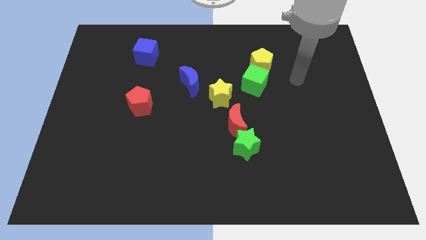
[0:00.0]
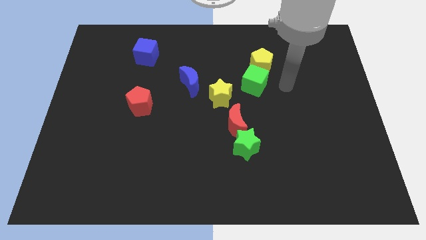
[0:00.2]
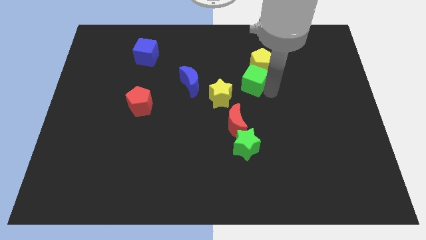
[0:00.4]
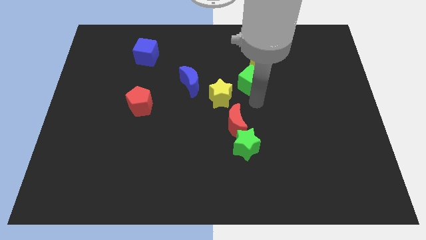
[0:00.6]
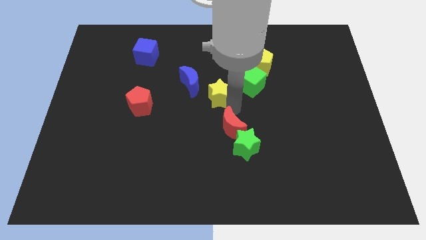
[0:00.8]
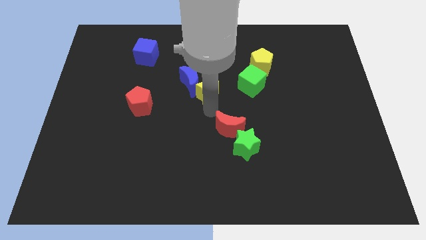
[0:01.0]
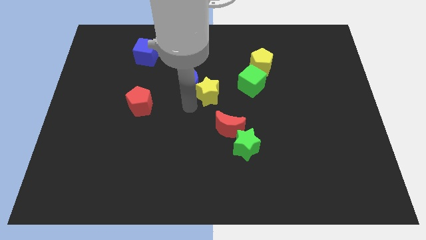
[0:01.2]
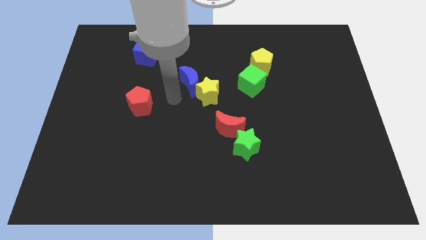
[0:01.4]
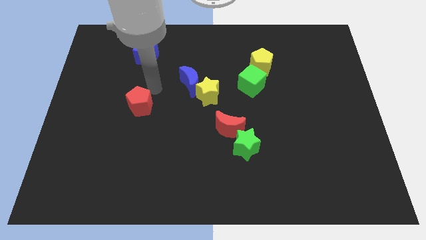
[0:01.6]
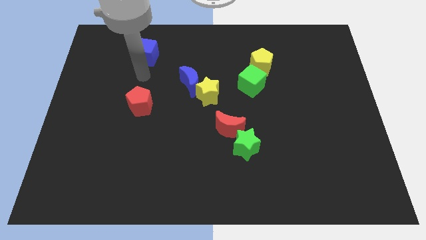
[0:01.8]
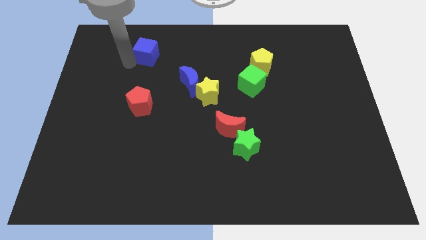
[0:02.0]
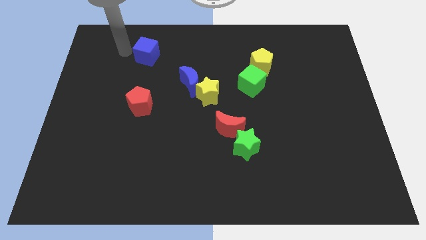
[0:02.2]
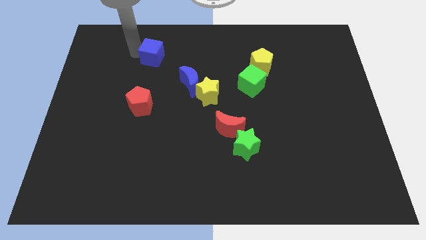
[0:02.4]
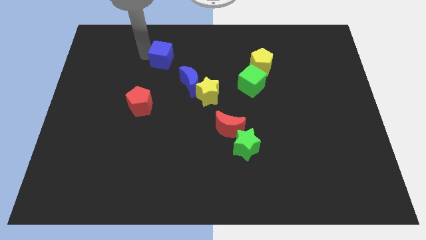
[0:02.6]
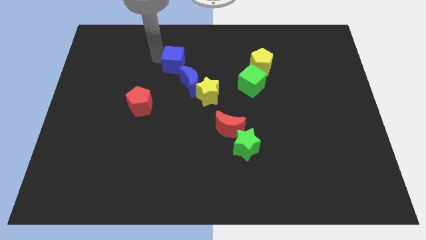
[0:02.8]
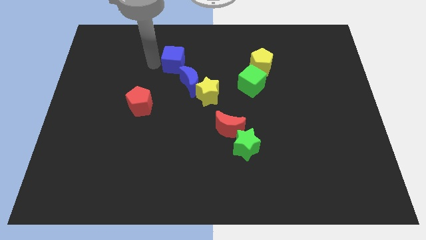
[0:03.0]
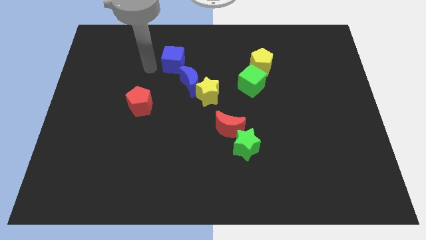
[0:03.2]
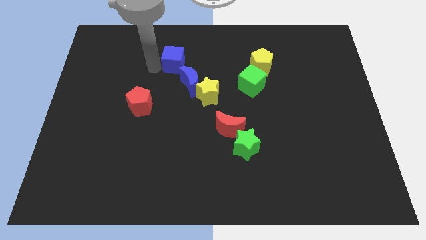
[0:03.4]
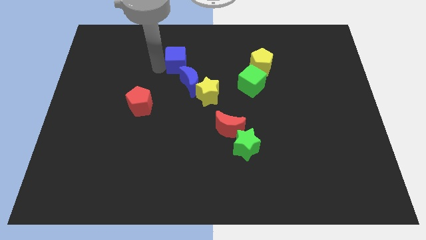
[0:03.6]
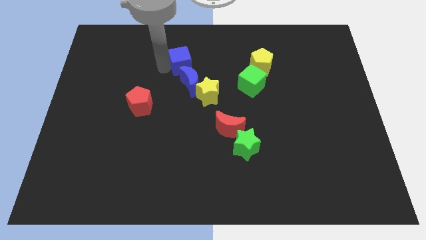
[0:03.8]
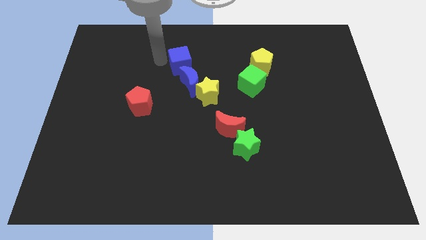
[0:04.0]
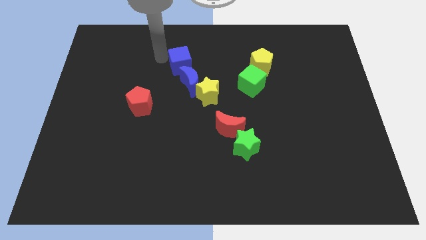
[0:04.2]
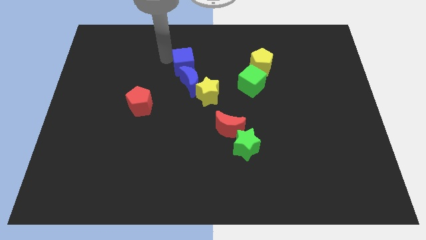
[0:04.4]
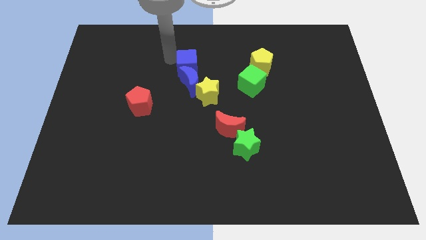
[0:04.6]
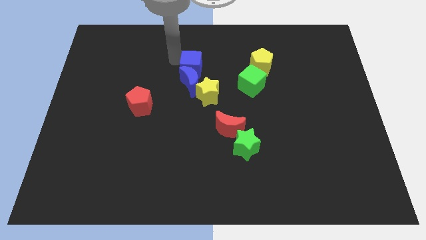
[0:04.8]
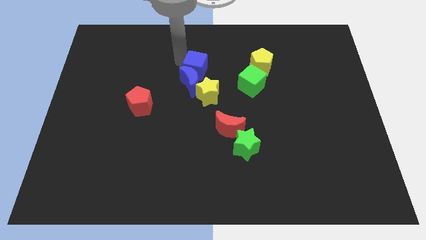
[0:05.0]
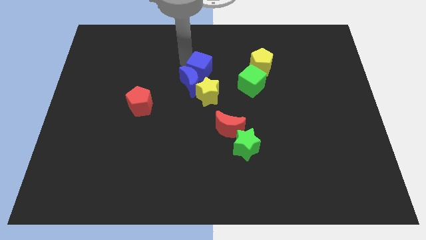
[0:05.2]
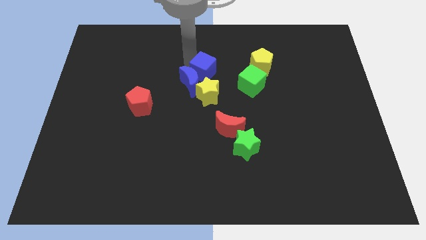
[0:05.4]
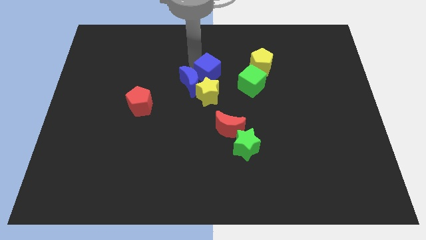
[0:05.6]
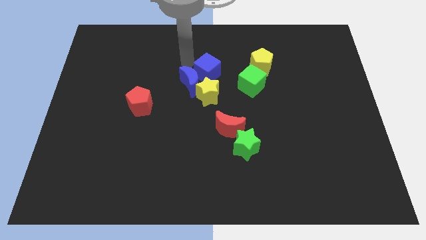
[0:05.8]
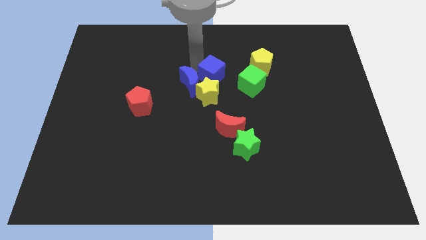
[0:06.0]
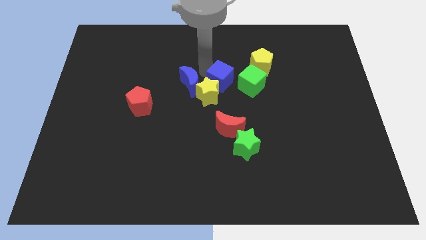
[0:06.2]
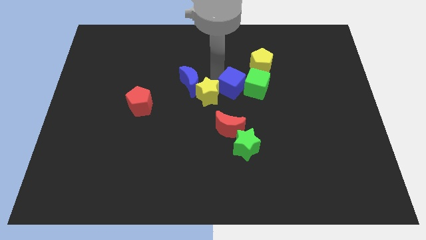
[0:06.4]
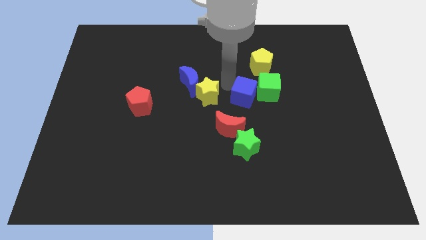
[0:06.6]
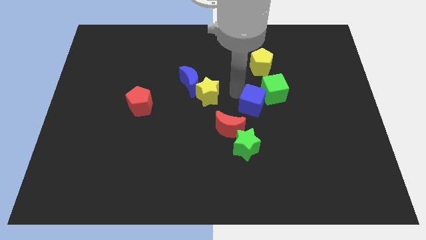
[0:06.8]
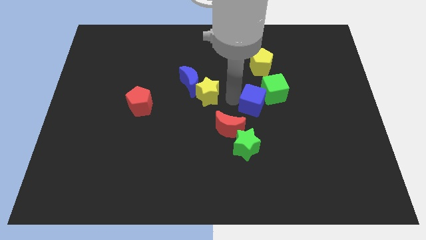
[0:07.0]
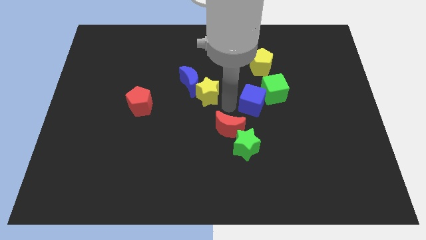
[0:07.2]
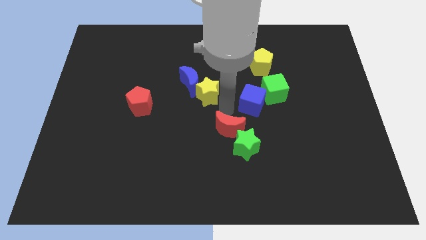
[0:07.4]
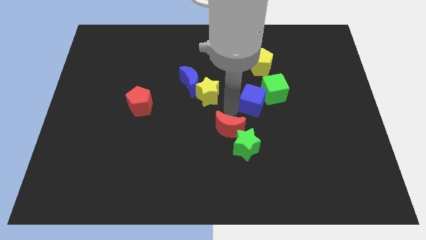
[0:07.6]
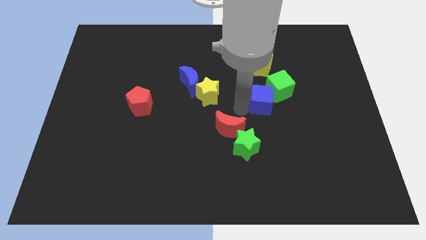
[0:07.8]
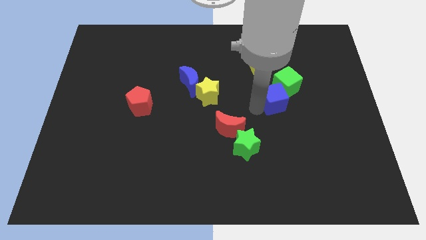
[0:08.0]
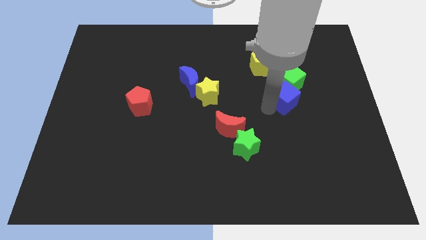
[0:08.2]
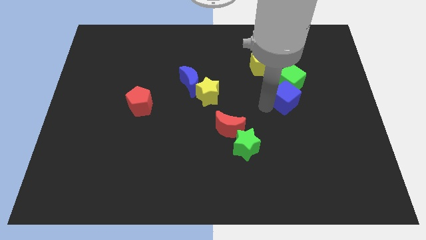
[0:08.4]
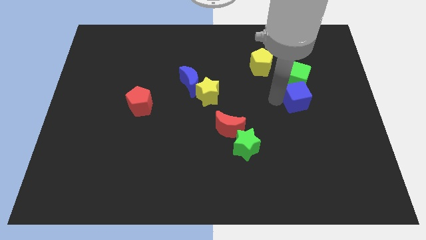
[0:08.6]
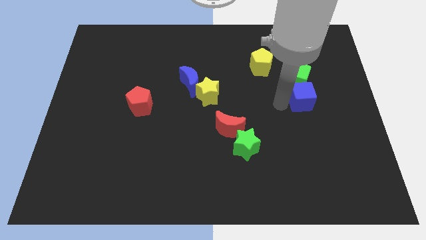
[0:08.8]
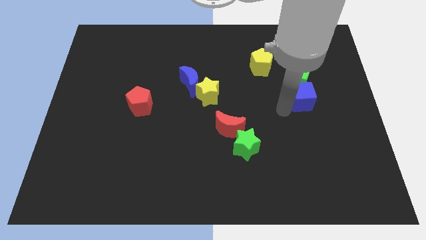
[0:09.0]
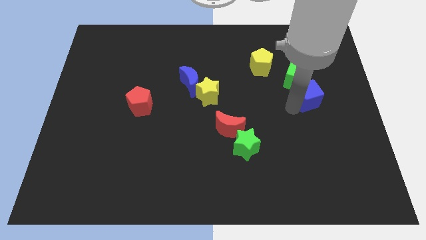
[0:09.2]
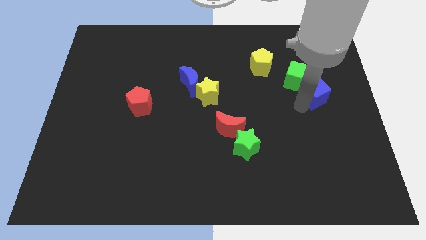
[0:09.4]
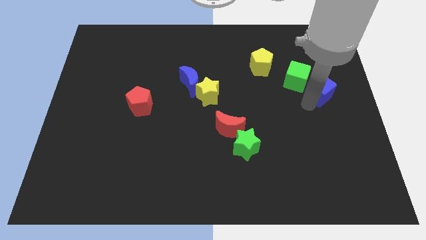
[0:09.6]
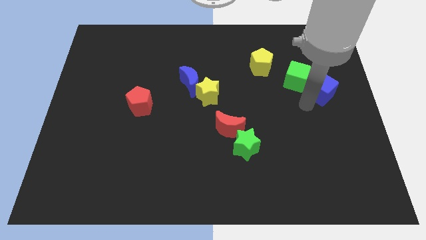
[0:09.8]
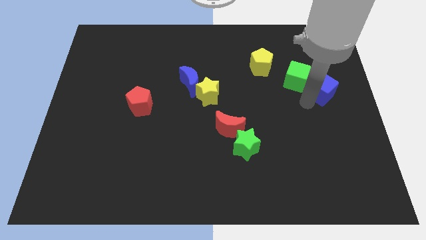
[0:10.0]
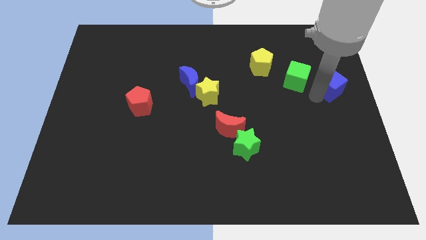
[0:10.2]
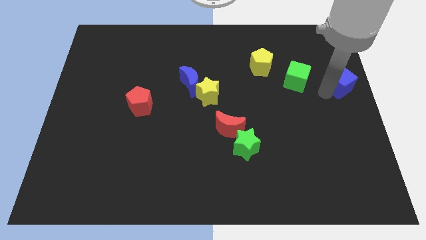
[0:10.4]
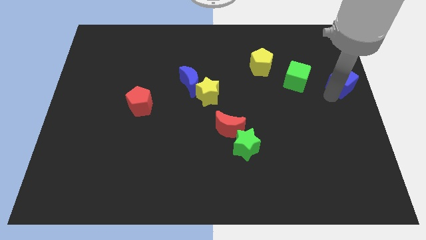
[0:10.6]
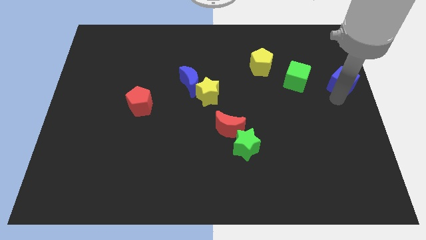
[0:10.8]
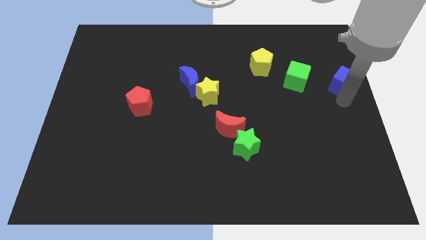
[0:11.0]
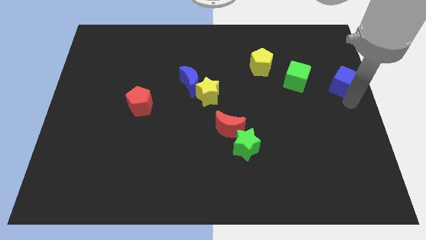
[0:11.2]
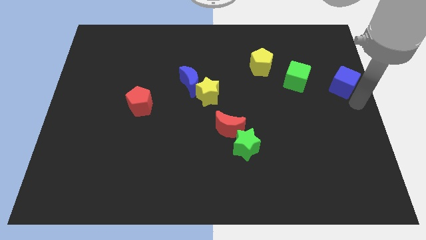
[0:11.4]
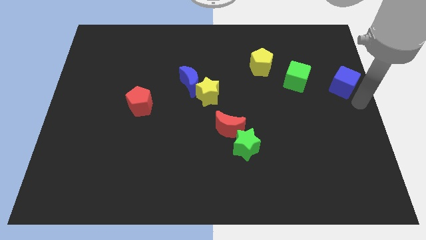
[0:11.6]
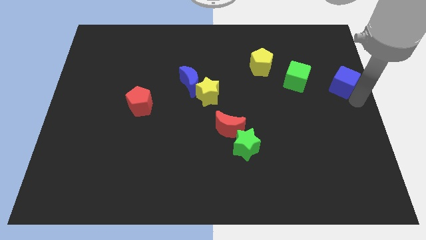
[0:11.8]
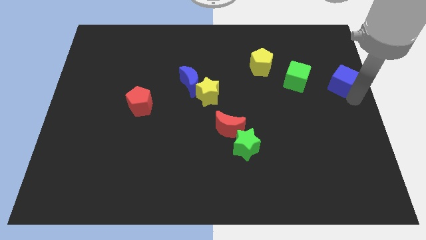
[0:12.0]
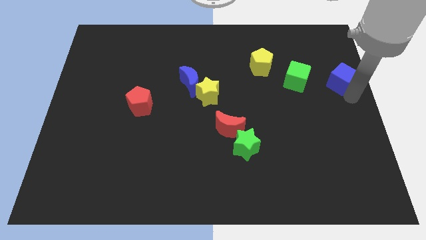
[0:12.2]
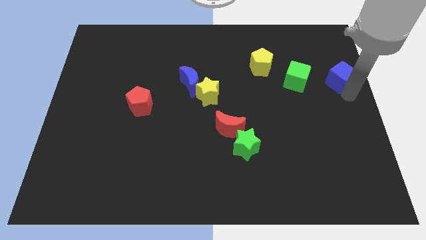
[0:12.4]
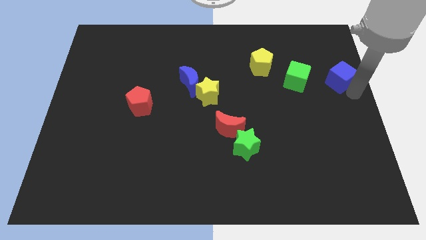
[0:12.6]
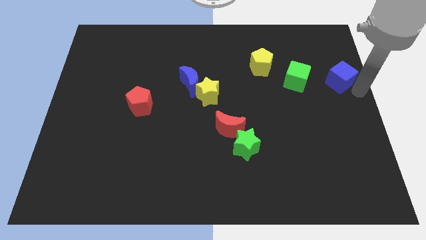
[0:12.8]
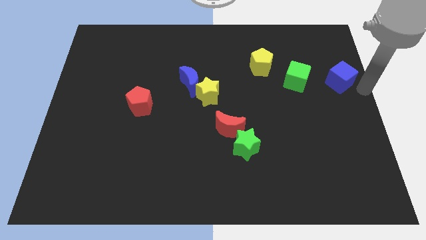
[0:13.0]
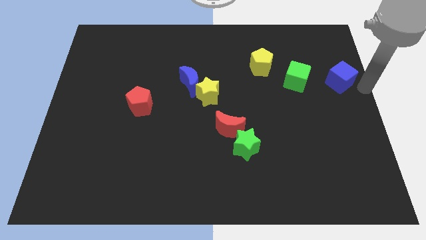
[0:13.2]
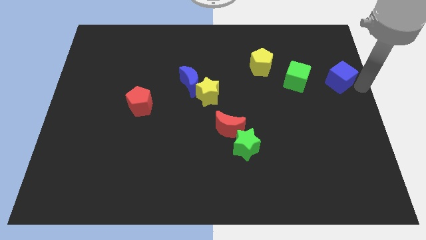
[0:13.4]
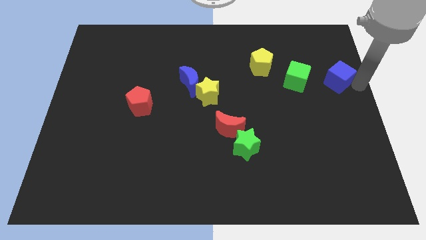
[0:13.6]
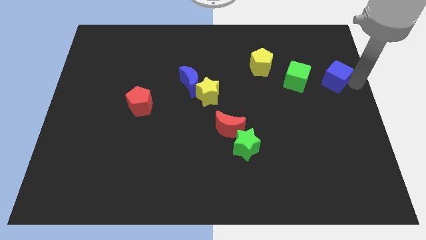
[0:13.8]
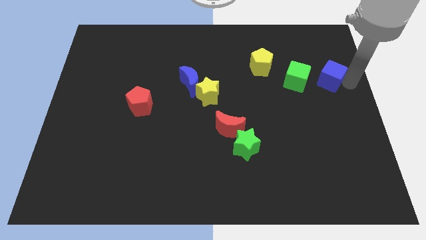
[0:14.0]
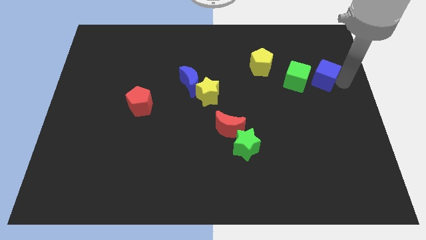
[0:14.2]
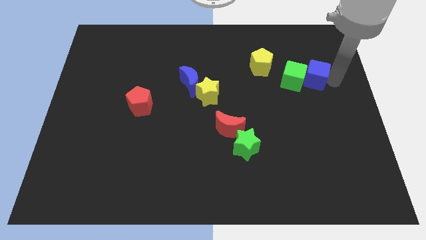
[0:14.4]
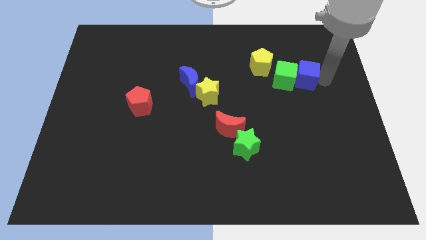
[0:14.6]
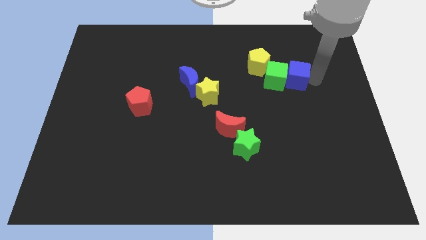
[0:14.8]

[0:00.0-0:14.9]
slide the blue cube to the right of the green cube
